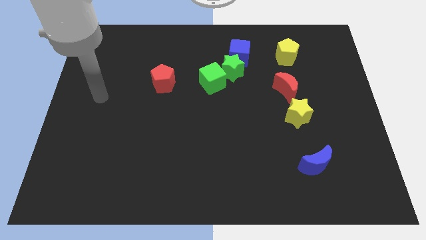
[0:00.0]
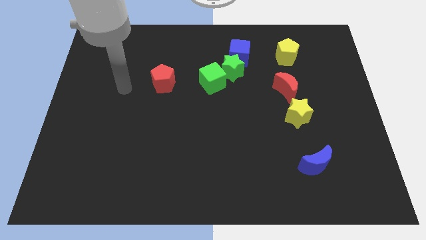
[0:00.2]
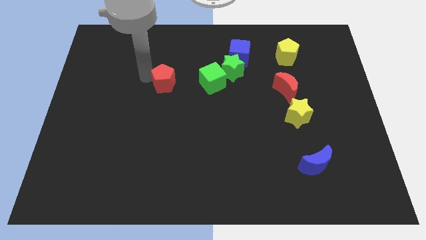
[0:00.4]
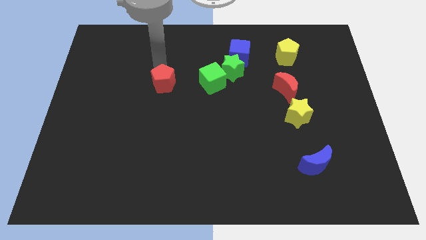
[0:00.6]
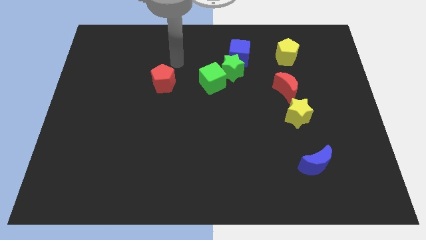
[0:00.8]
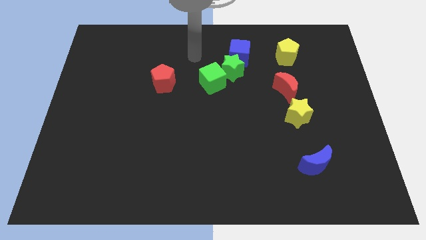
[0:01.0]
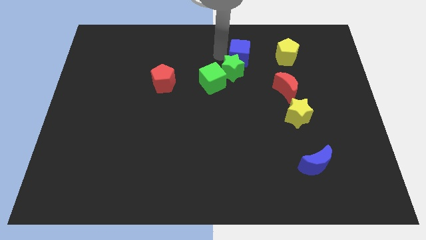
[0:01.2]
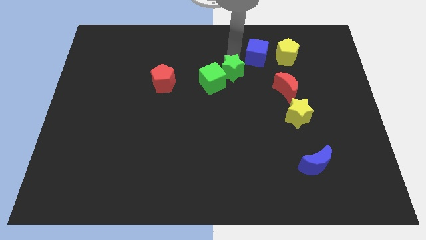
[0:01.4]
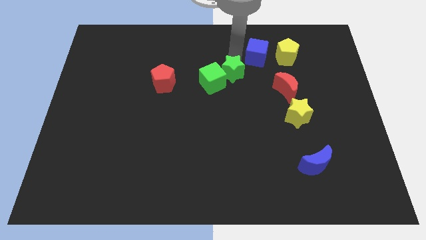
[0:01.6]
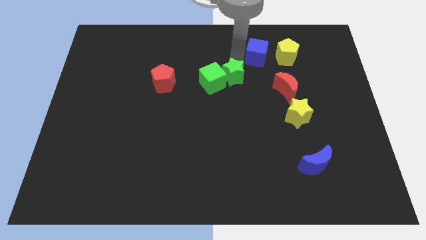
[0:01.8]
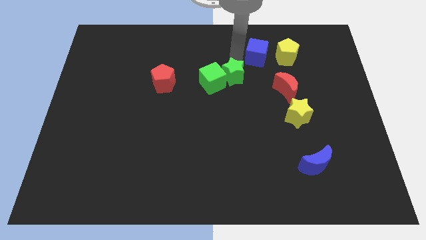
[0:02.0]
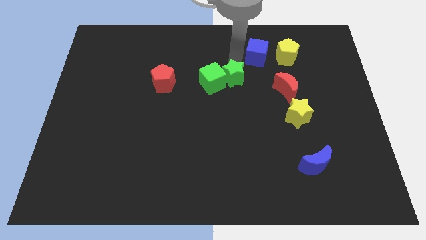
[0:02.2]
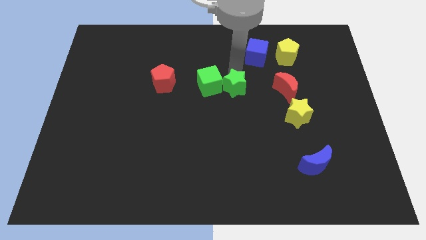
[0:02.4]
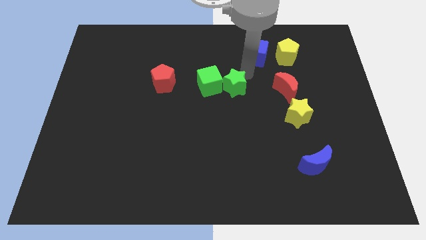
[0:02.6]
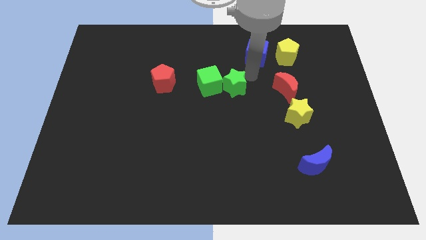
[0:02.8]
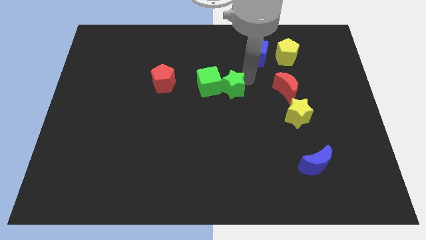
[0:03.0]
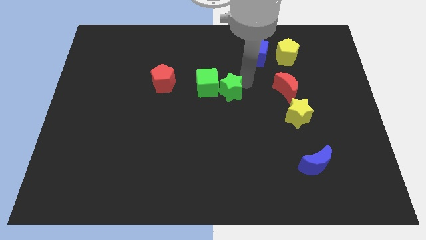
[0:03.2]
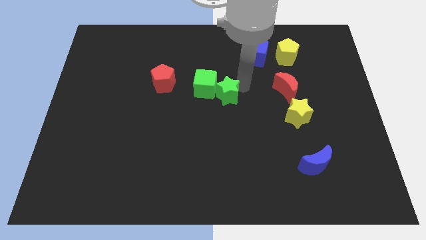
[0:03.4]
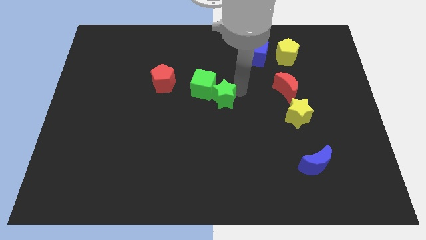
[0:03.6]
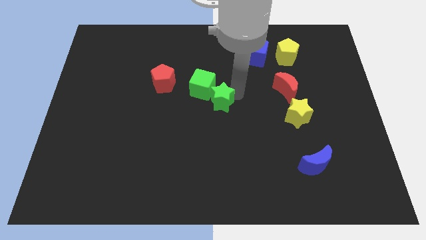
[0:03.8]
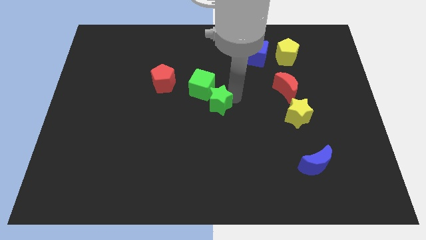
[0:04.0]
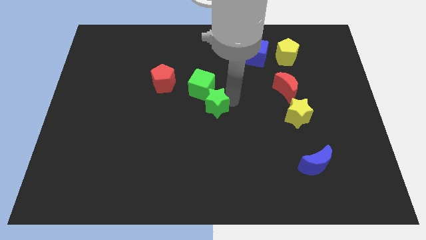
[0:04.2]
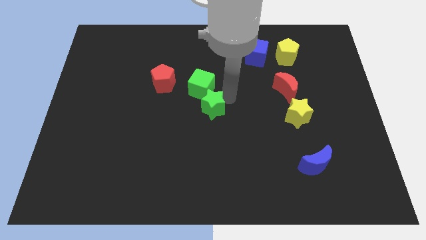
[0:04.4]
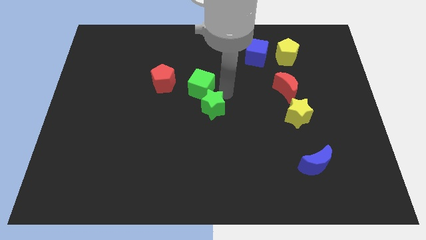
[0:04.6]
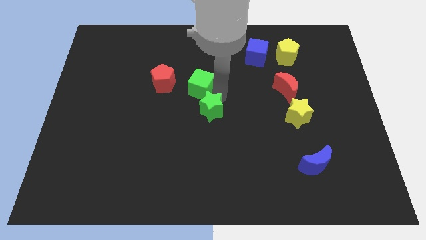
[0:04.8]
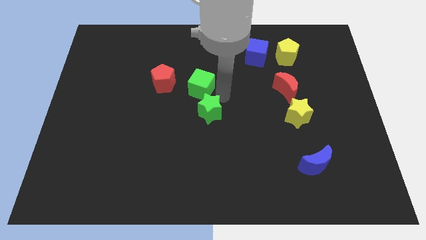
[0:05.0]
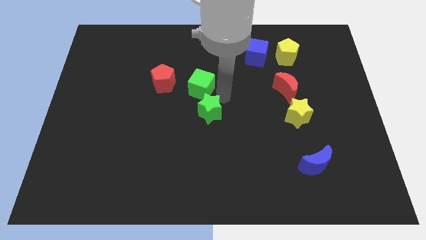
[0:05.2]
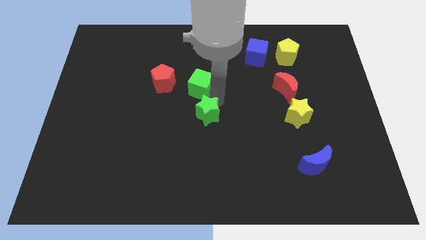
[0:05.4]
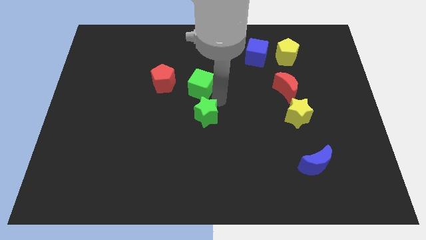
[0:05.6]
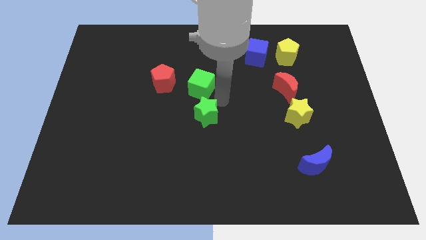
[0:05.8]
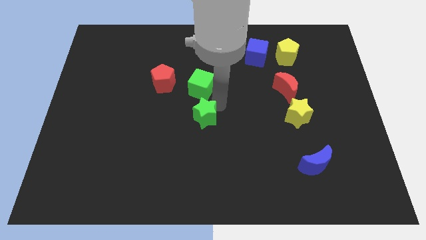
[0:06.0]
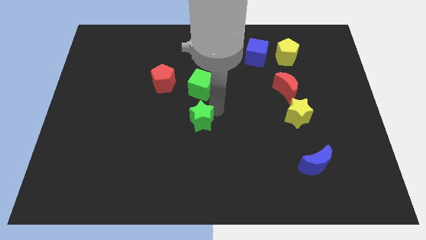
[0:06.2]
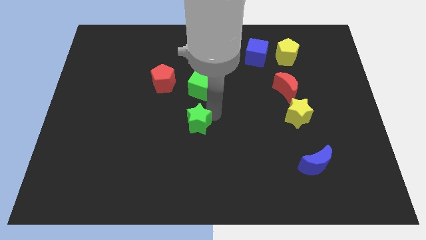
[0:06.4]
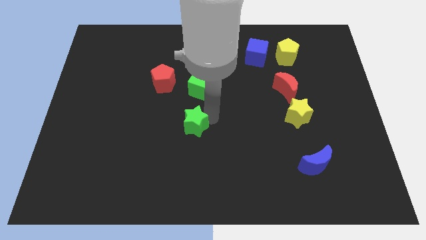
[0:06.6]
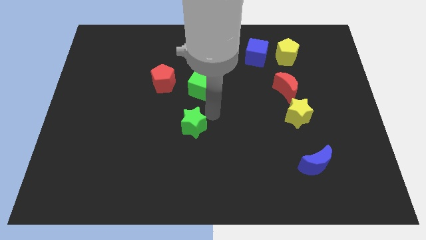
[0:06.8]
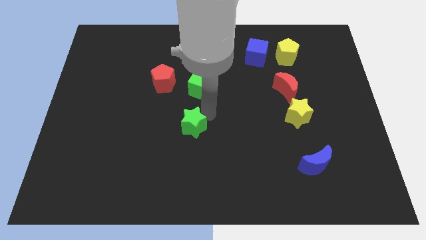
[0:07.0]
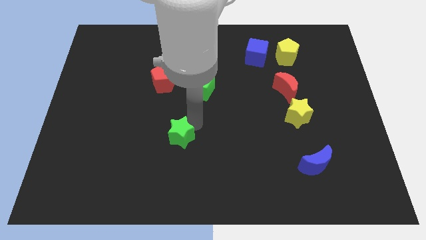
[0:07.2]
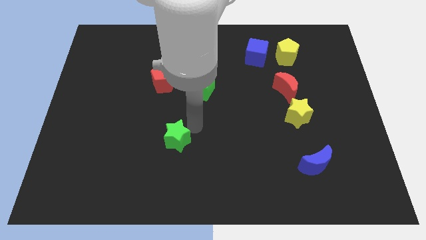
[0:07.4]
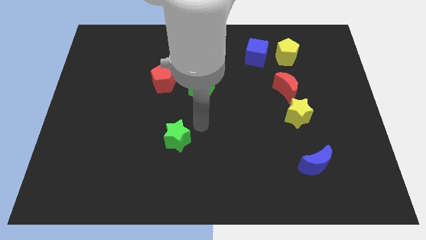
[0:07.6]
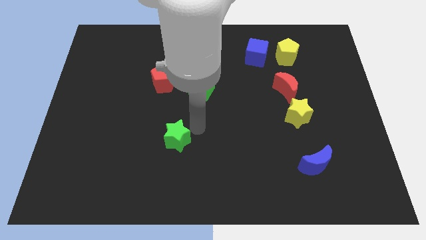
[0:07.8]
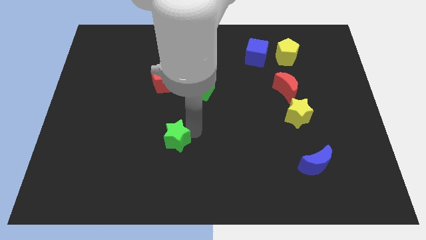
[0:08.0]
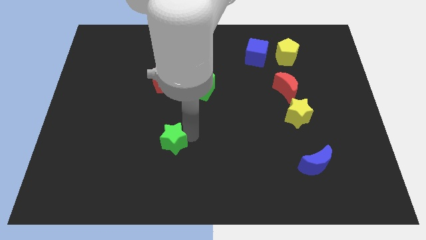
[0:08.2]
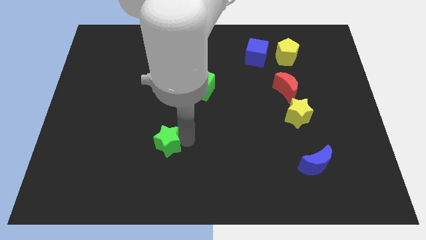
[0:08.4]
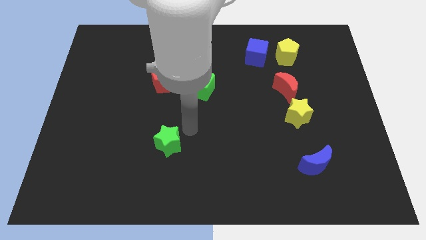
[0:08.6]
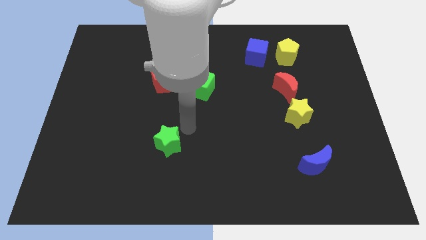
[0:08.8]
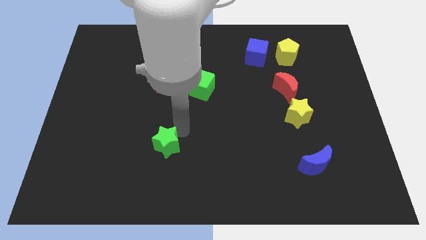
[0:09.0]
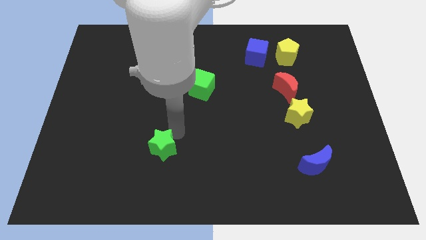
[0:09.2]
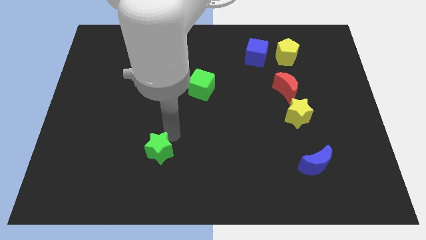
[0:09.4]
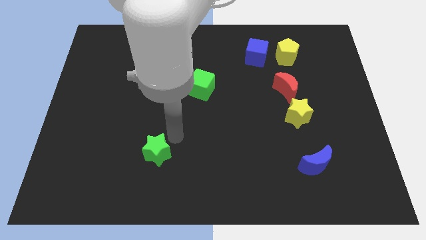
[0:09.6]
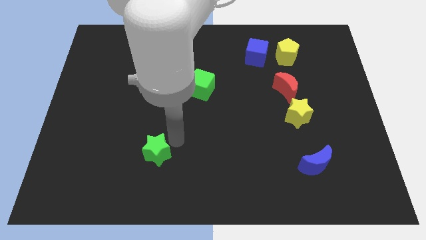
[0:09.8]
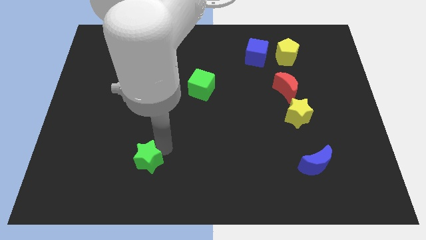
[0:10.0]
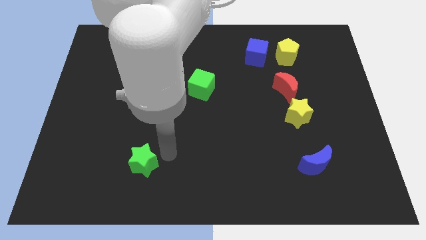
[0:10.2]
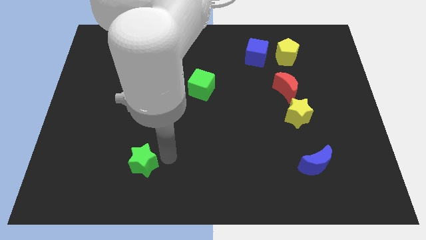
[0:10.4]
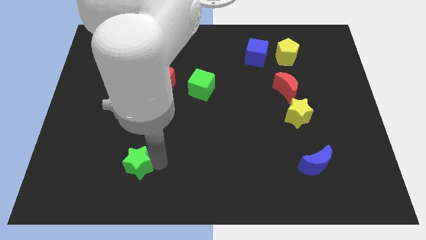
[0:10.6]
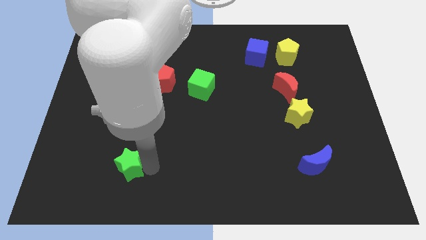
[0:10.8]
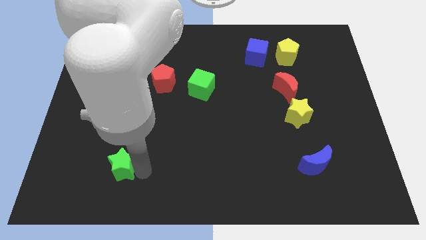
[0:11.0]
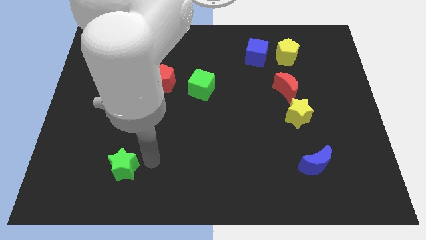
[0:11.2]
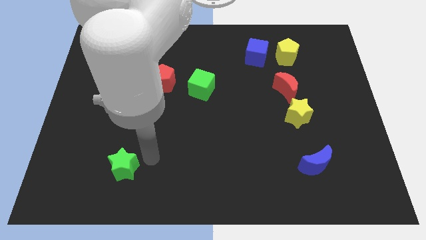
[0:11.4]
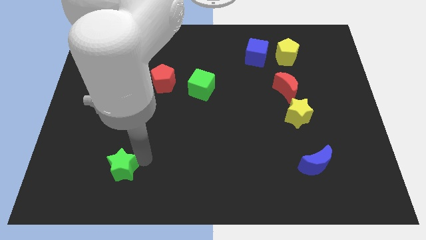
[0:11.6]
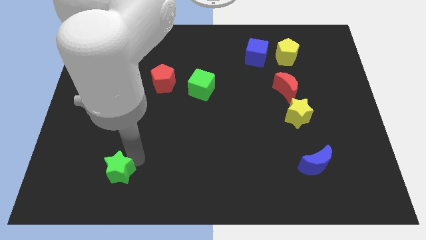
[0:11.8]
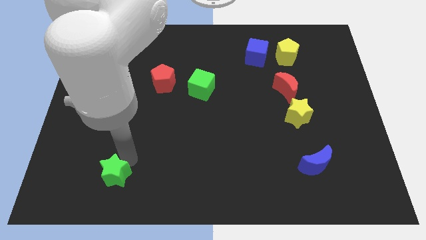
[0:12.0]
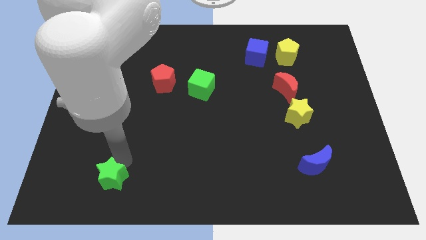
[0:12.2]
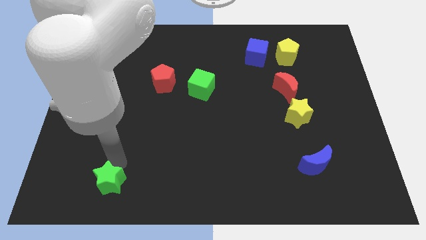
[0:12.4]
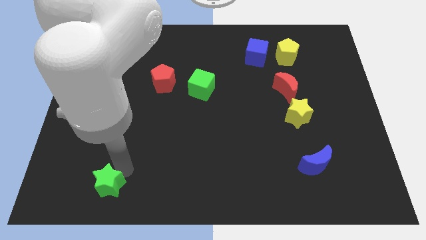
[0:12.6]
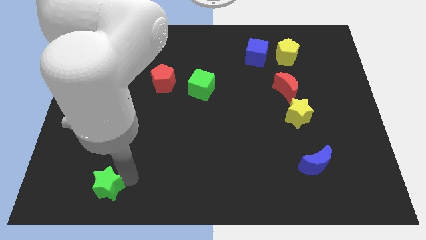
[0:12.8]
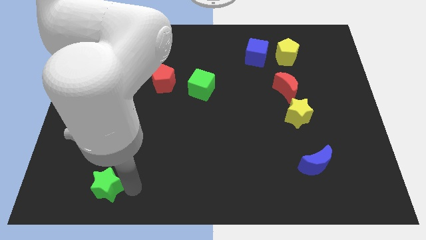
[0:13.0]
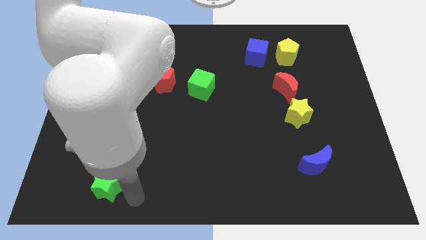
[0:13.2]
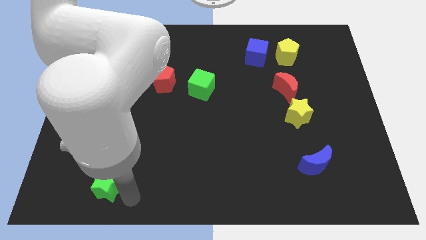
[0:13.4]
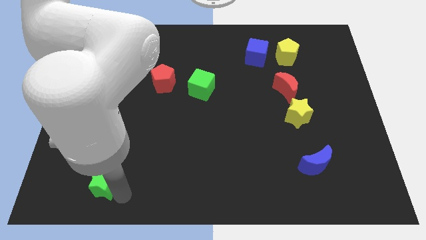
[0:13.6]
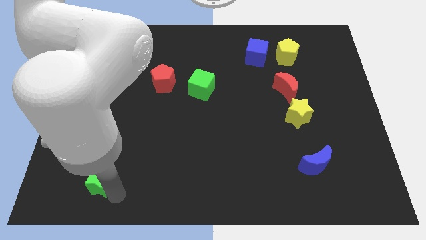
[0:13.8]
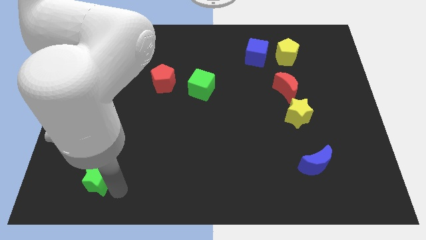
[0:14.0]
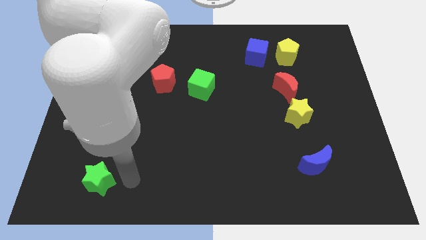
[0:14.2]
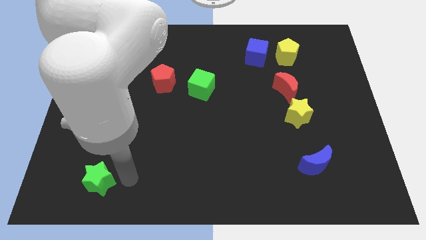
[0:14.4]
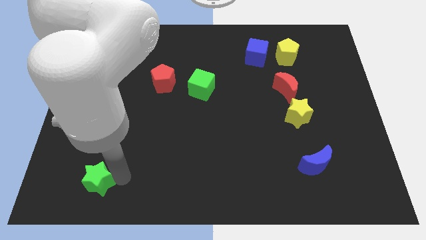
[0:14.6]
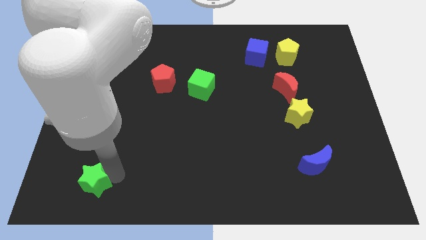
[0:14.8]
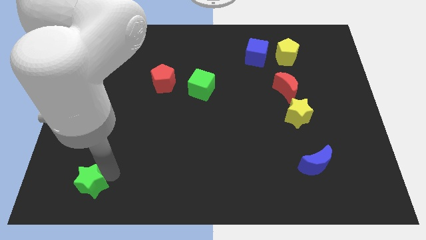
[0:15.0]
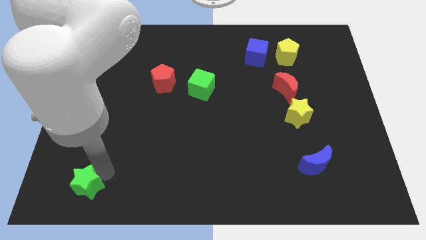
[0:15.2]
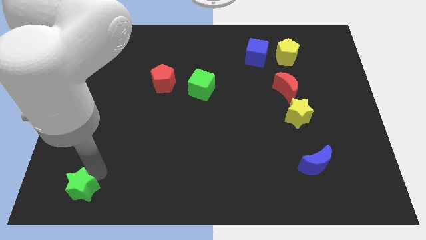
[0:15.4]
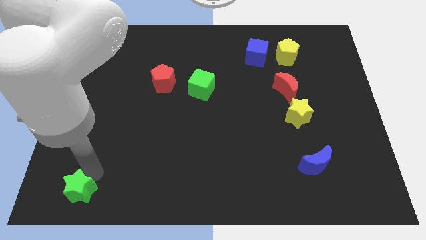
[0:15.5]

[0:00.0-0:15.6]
push the green star to the bottom left of the board
